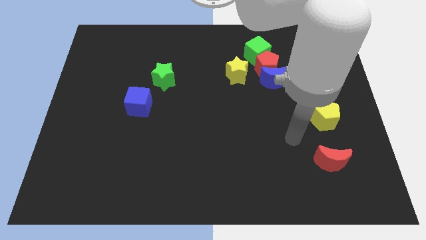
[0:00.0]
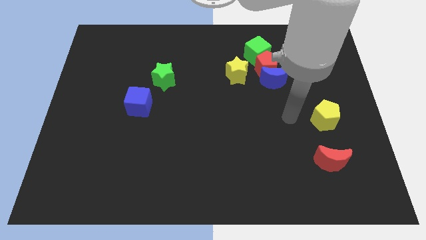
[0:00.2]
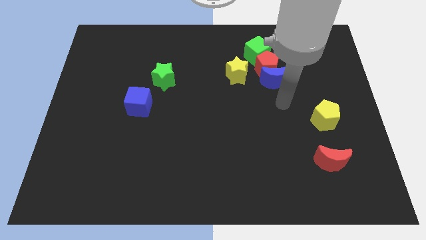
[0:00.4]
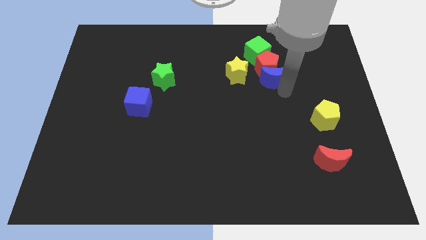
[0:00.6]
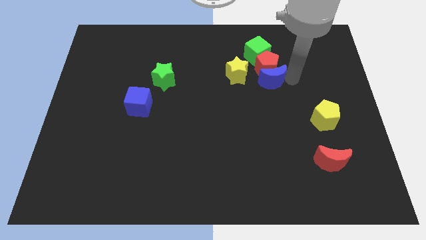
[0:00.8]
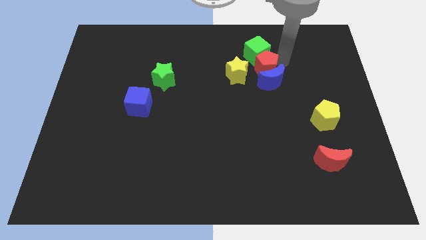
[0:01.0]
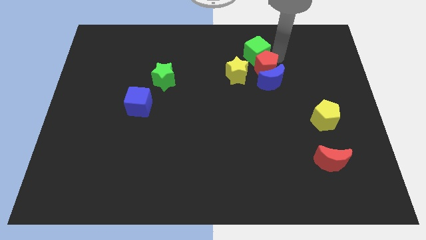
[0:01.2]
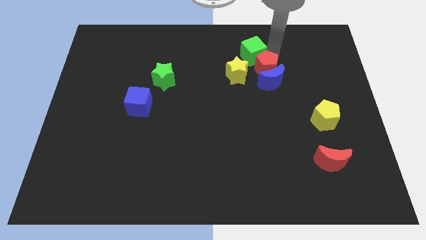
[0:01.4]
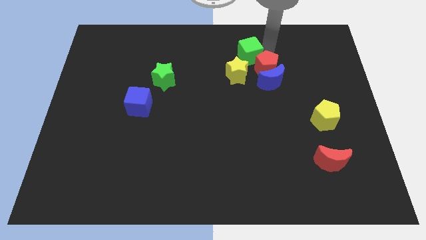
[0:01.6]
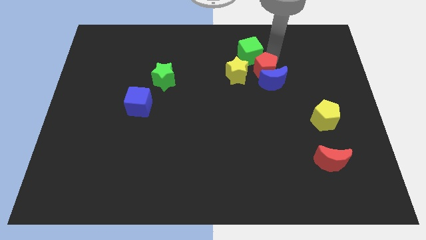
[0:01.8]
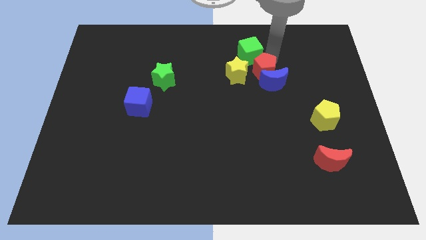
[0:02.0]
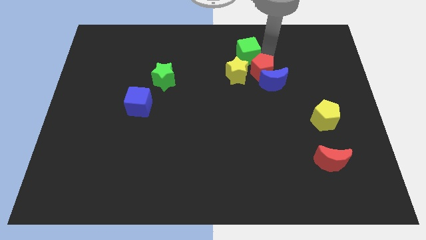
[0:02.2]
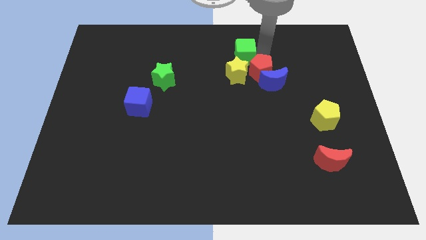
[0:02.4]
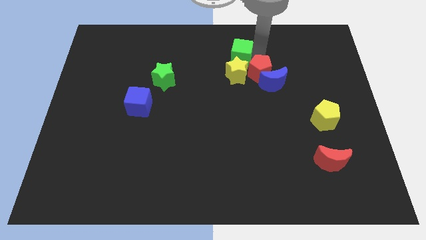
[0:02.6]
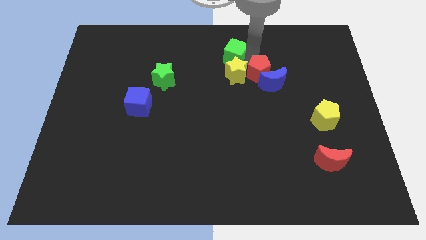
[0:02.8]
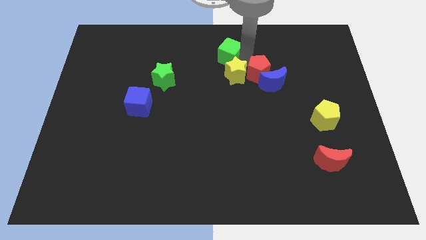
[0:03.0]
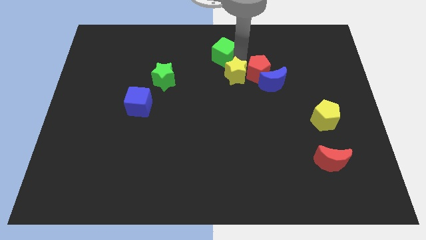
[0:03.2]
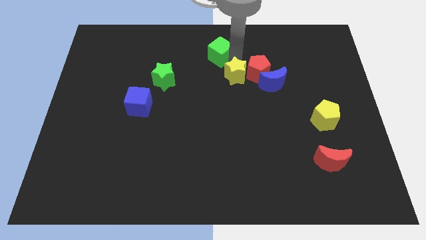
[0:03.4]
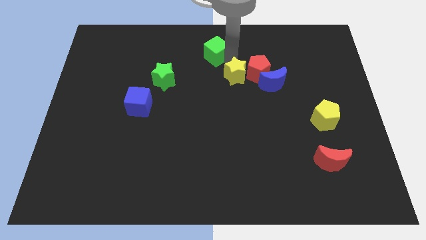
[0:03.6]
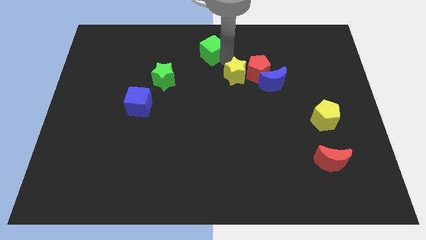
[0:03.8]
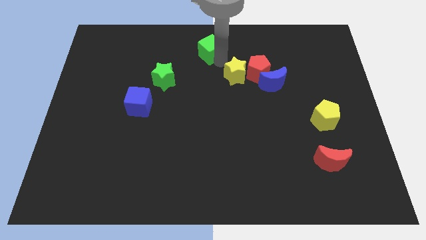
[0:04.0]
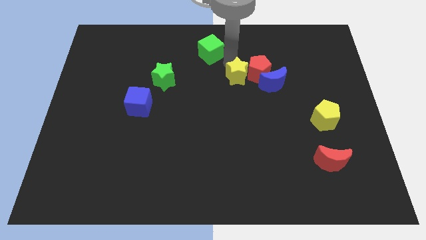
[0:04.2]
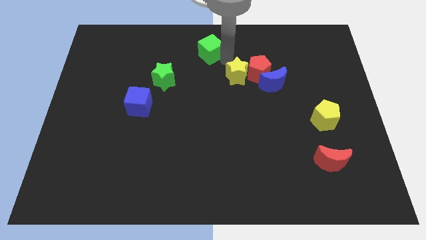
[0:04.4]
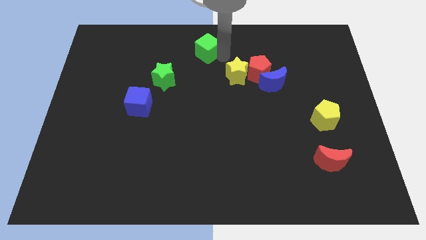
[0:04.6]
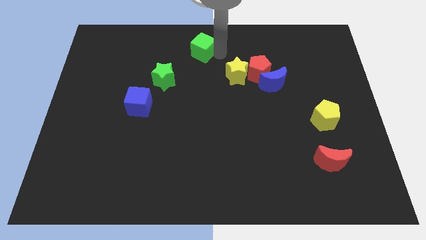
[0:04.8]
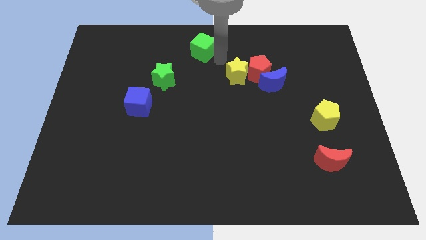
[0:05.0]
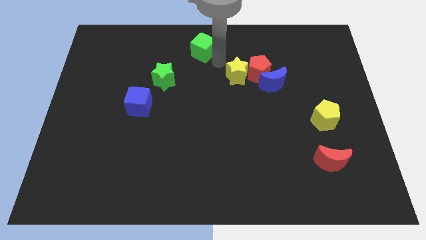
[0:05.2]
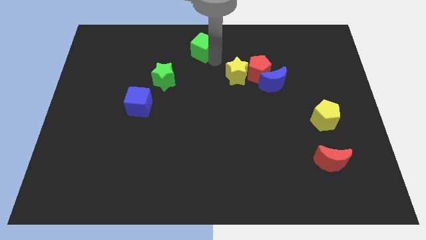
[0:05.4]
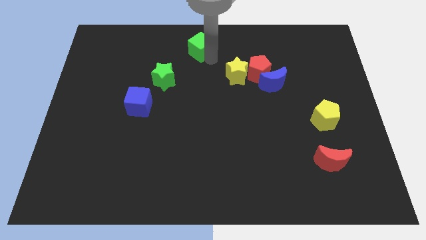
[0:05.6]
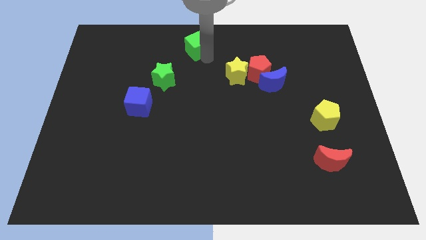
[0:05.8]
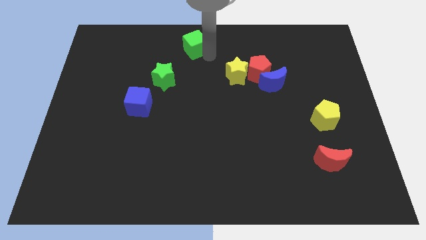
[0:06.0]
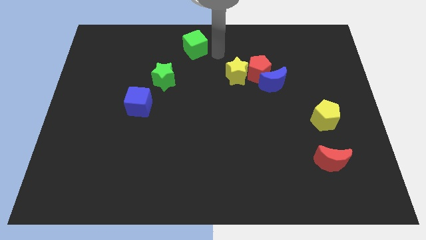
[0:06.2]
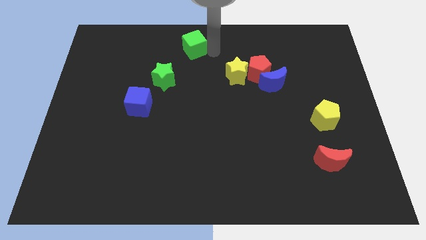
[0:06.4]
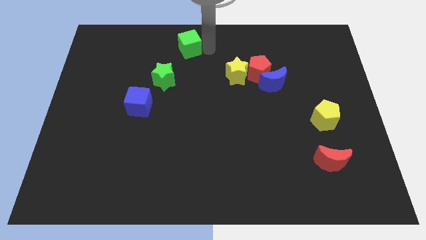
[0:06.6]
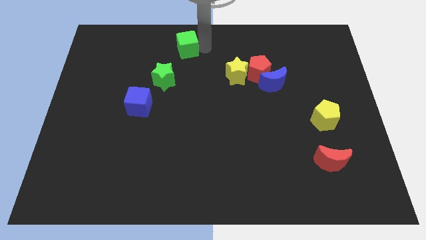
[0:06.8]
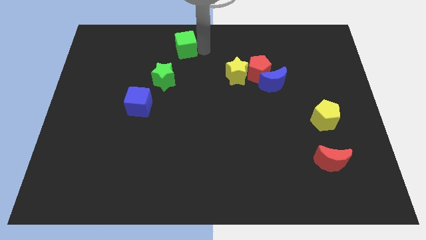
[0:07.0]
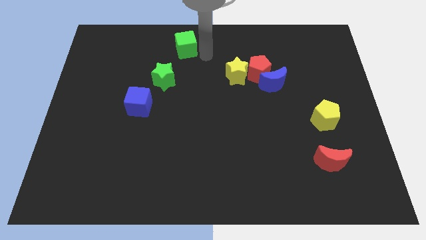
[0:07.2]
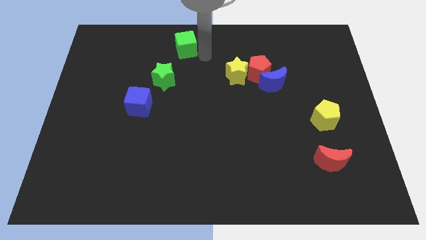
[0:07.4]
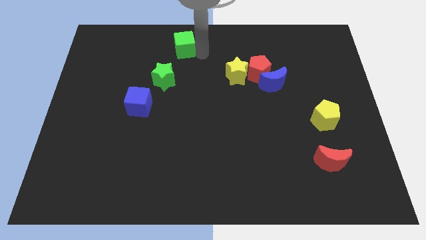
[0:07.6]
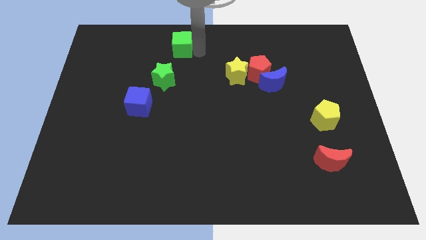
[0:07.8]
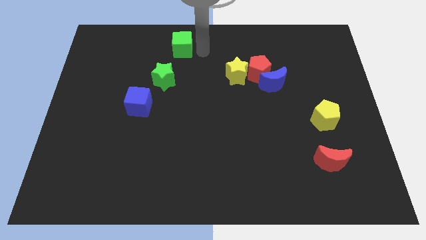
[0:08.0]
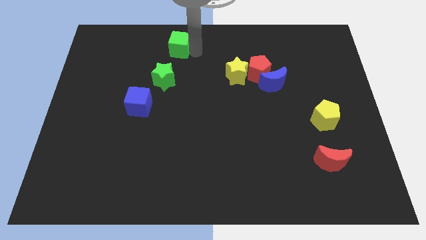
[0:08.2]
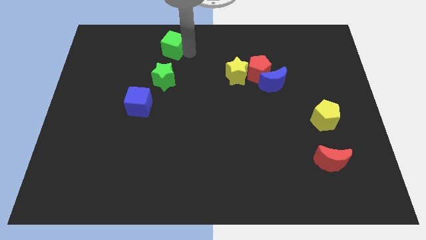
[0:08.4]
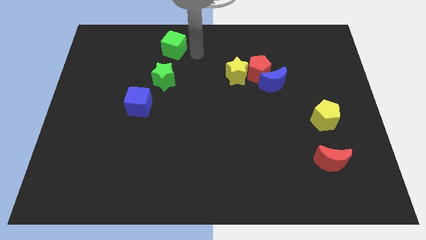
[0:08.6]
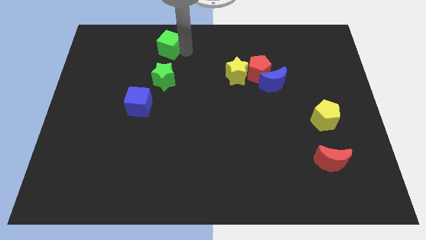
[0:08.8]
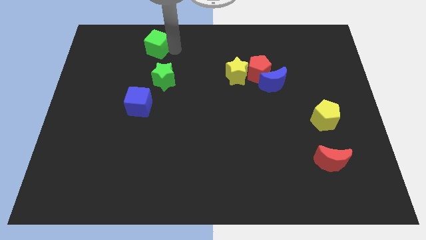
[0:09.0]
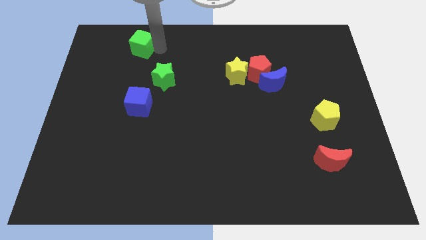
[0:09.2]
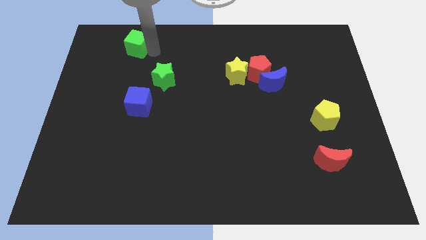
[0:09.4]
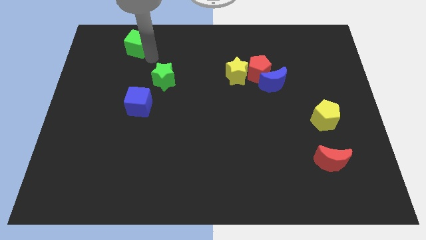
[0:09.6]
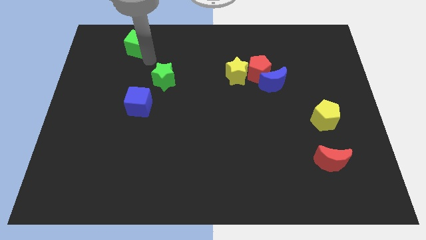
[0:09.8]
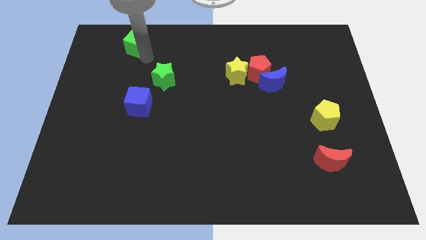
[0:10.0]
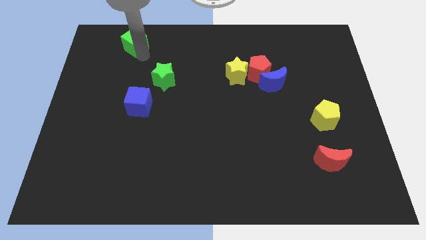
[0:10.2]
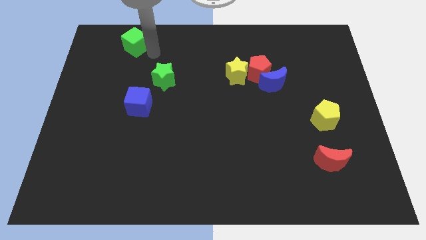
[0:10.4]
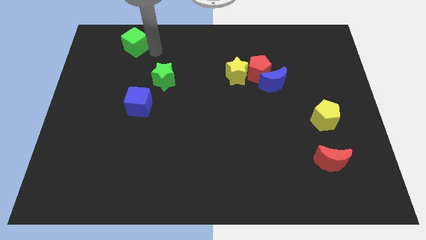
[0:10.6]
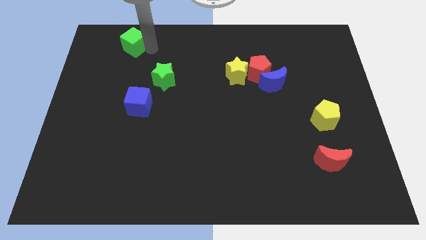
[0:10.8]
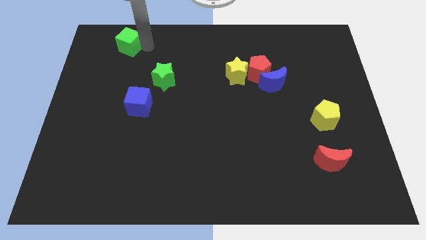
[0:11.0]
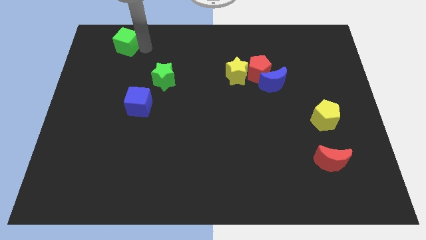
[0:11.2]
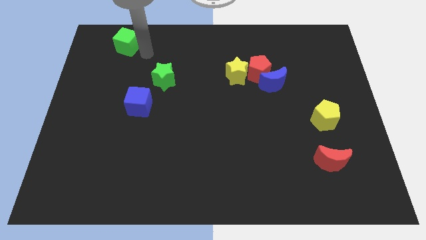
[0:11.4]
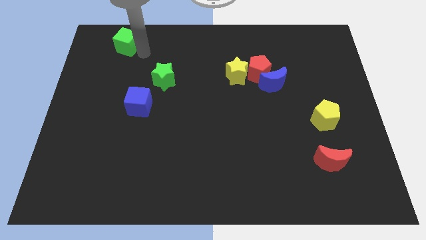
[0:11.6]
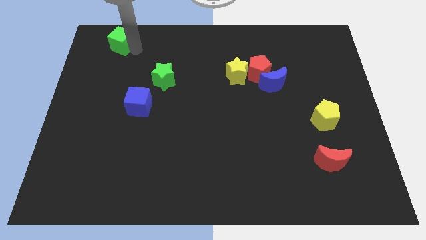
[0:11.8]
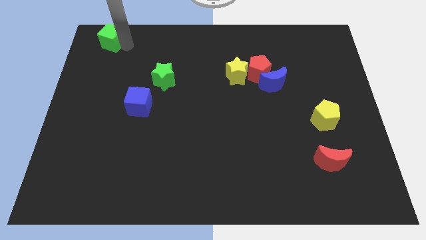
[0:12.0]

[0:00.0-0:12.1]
push the green cube to the top left corner

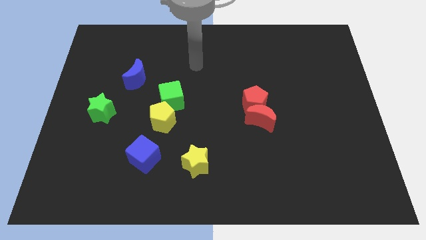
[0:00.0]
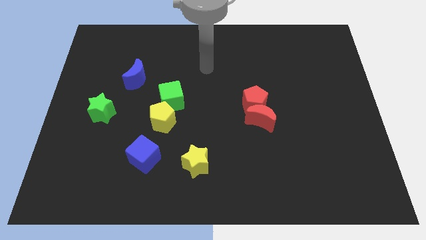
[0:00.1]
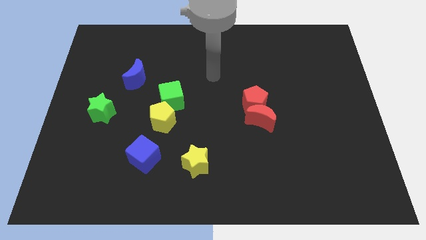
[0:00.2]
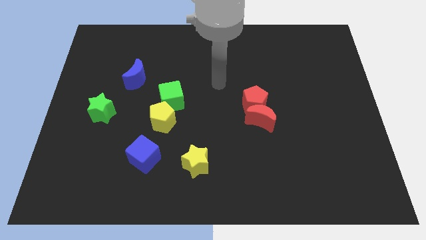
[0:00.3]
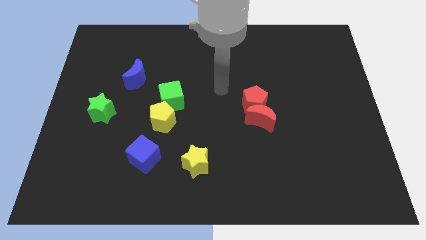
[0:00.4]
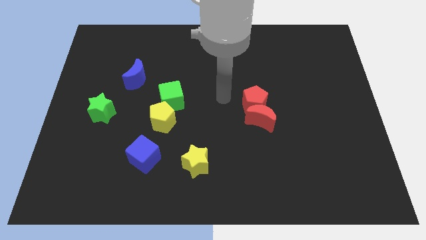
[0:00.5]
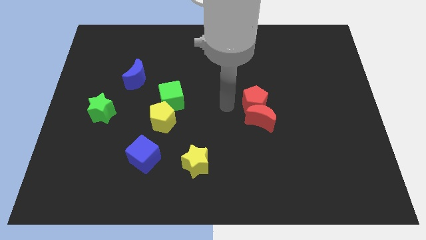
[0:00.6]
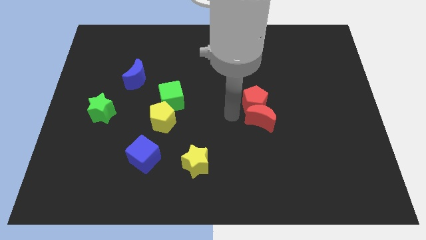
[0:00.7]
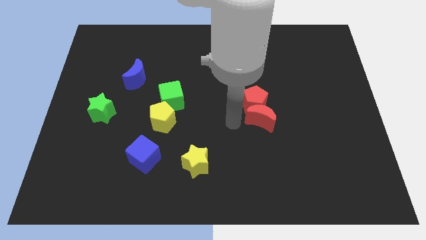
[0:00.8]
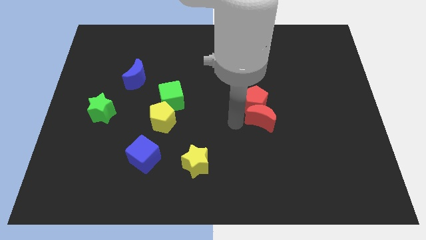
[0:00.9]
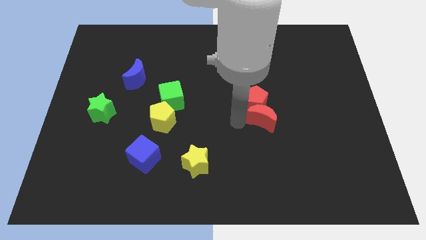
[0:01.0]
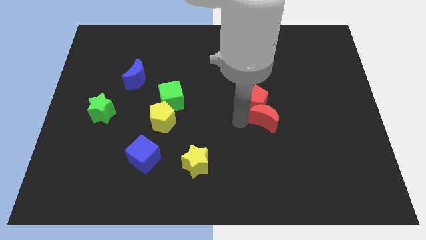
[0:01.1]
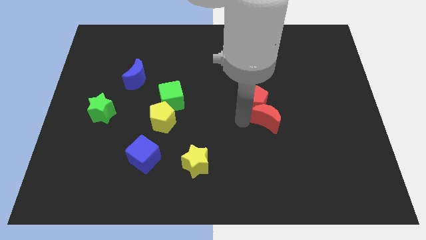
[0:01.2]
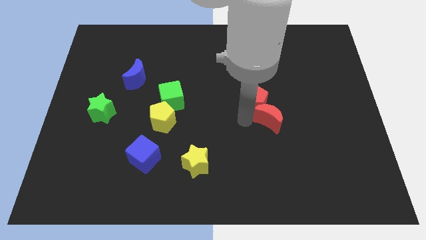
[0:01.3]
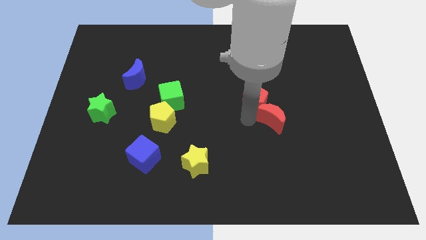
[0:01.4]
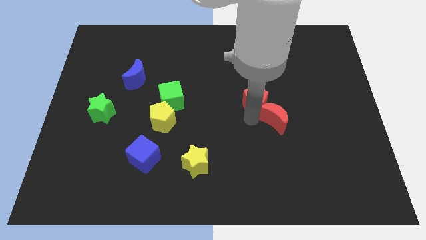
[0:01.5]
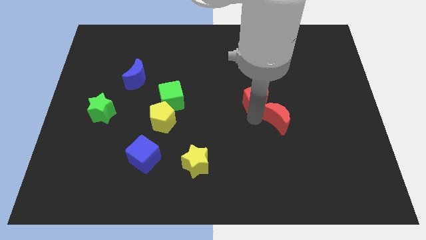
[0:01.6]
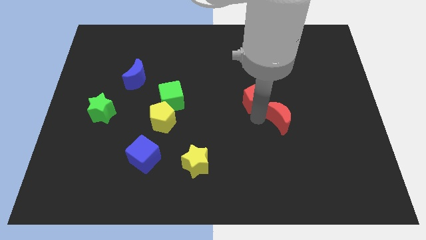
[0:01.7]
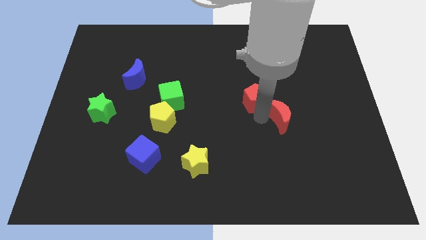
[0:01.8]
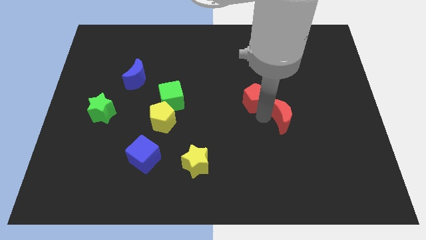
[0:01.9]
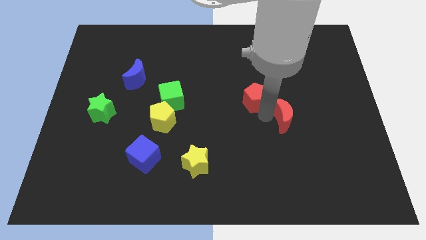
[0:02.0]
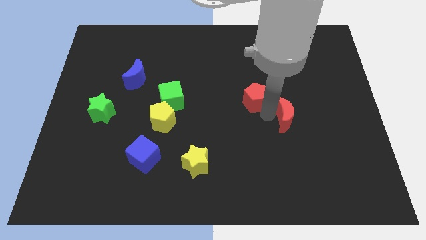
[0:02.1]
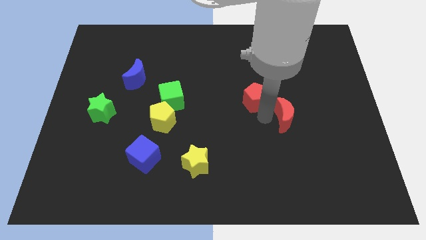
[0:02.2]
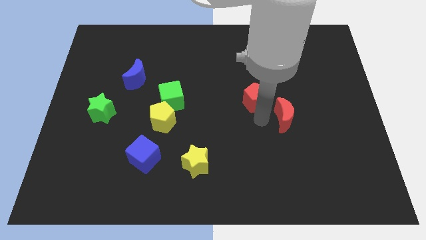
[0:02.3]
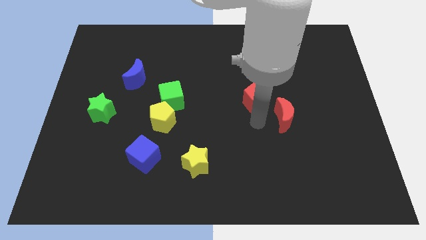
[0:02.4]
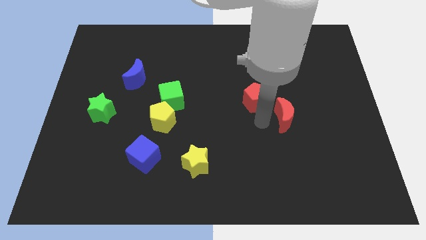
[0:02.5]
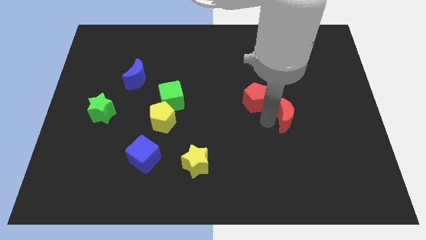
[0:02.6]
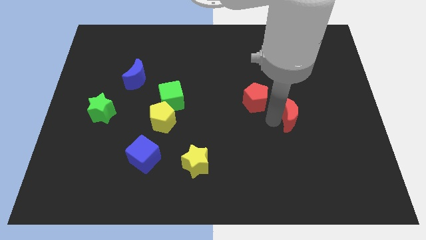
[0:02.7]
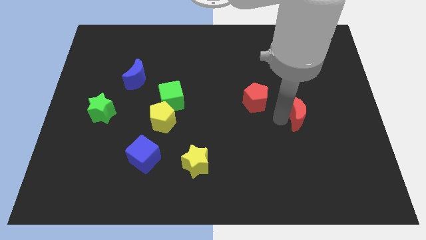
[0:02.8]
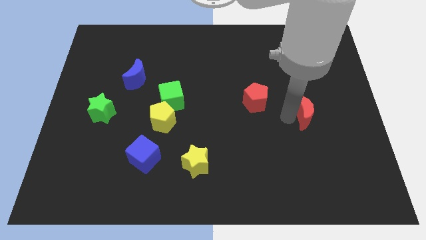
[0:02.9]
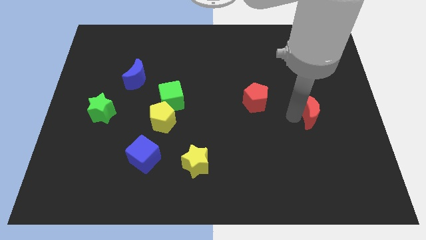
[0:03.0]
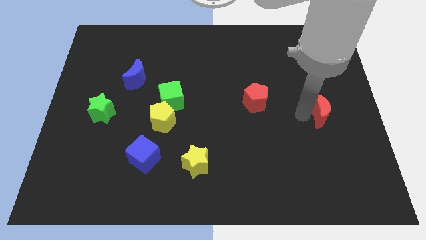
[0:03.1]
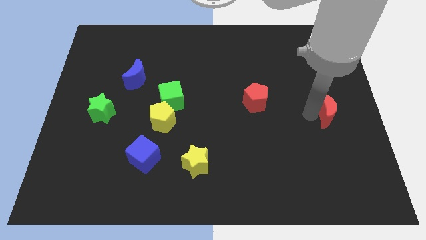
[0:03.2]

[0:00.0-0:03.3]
move the red moon to the center right
